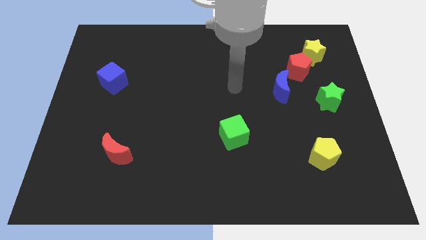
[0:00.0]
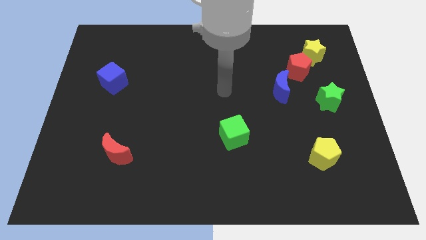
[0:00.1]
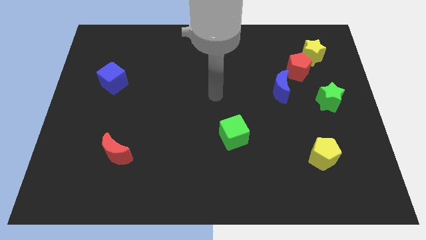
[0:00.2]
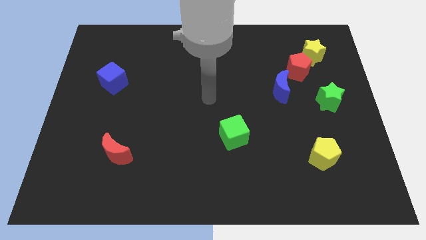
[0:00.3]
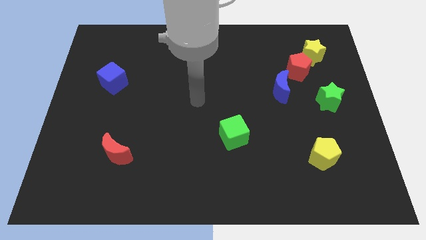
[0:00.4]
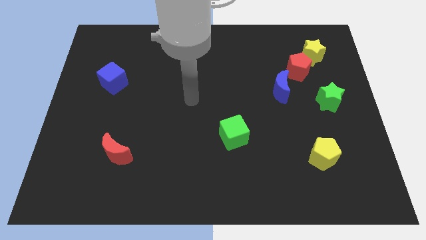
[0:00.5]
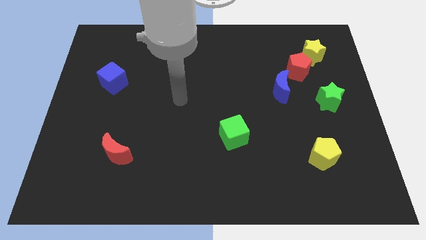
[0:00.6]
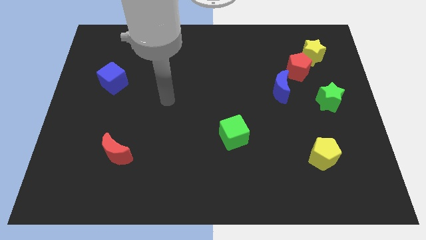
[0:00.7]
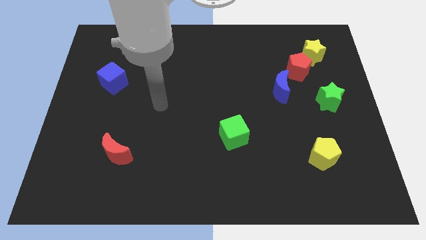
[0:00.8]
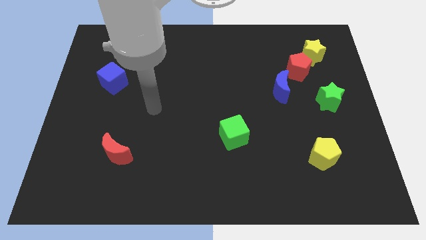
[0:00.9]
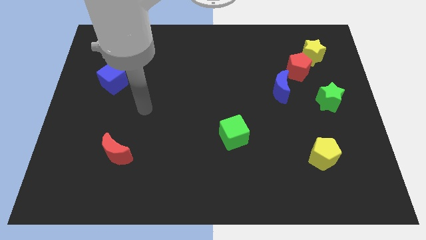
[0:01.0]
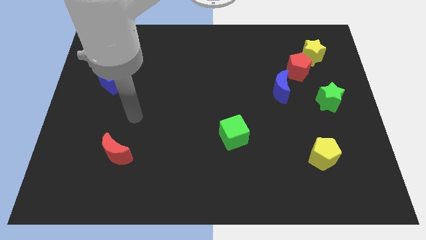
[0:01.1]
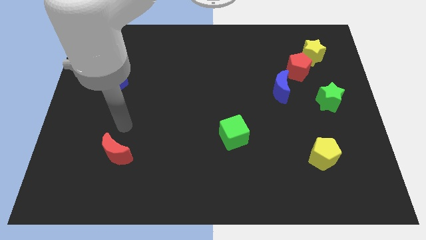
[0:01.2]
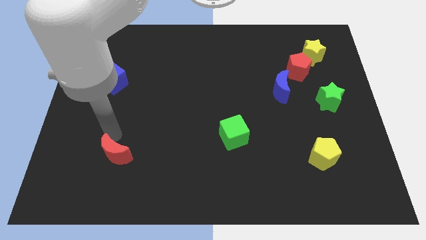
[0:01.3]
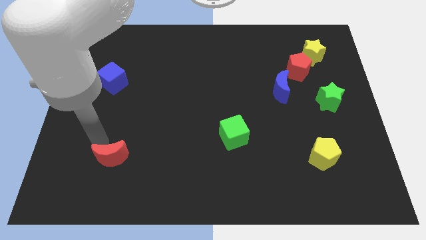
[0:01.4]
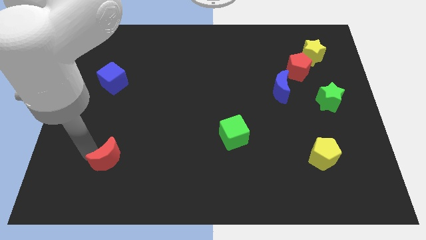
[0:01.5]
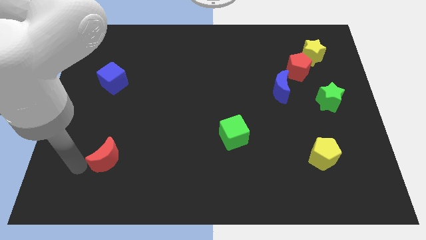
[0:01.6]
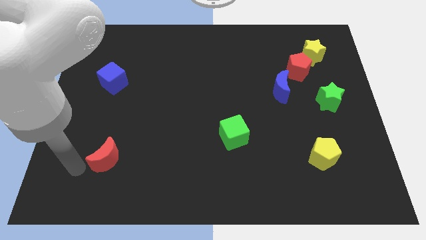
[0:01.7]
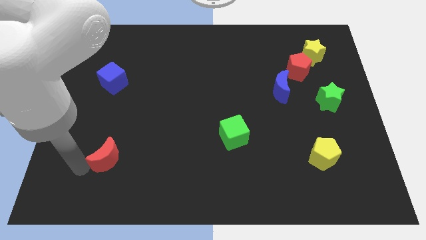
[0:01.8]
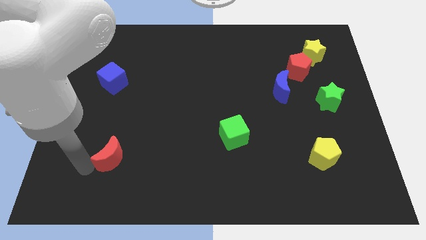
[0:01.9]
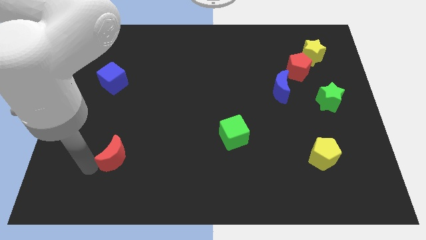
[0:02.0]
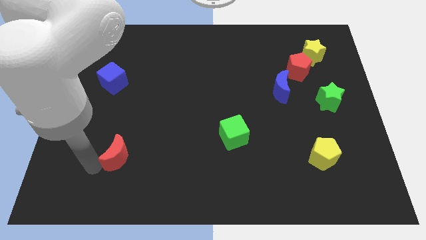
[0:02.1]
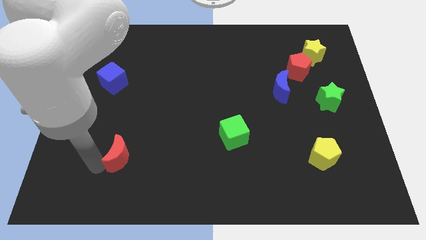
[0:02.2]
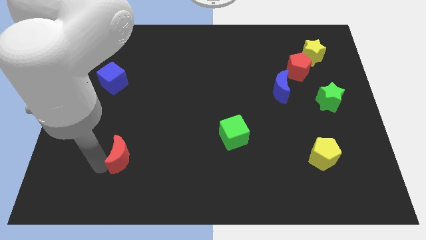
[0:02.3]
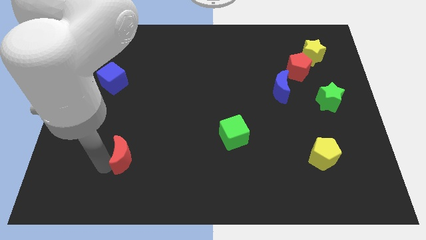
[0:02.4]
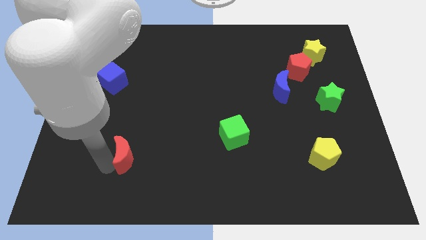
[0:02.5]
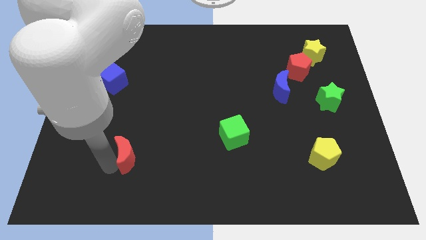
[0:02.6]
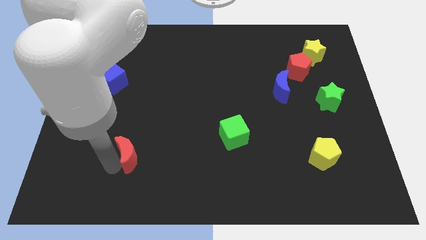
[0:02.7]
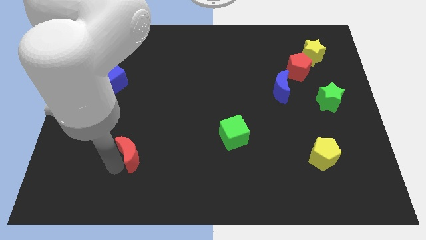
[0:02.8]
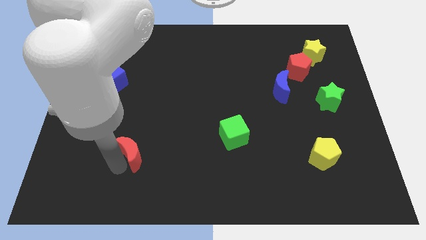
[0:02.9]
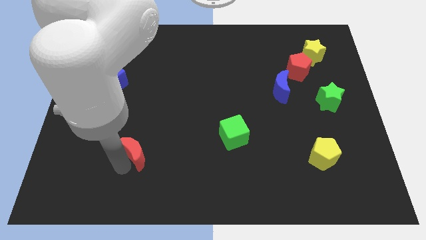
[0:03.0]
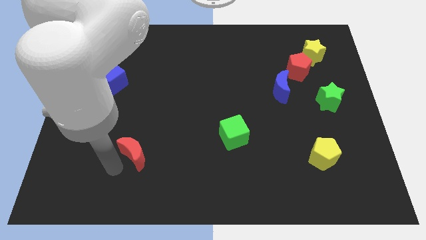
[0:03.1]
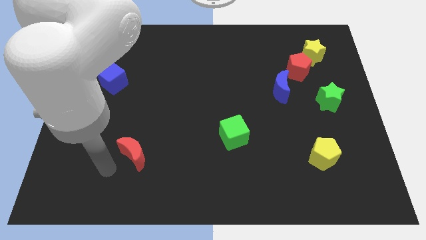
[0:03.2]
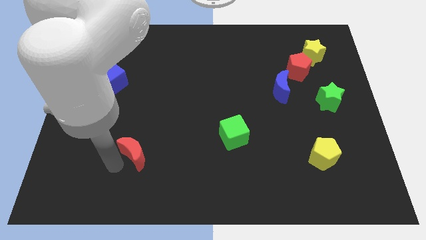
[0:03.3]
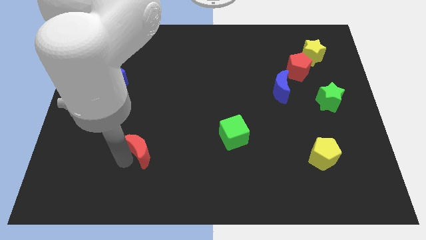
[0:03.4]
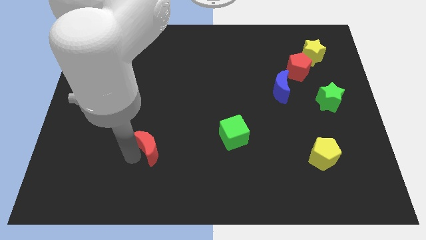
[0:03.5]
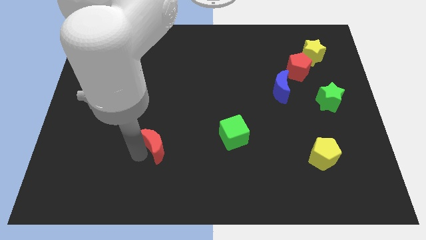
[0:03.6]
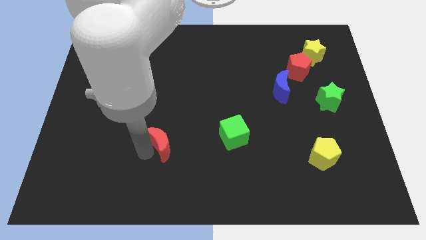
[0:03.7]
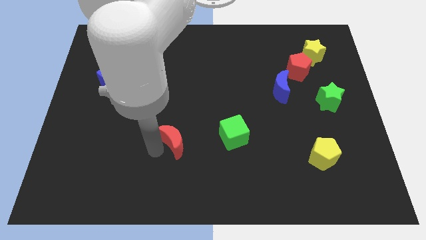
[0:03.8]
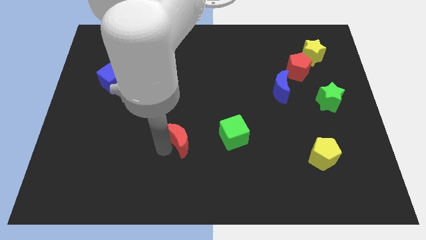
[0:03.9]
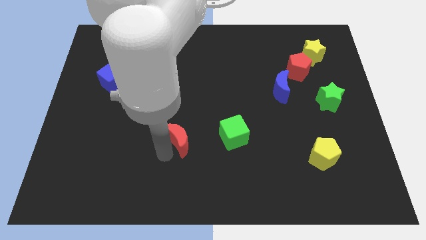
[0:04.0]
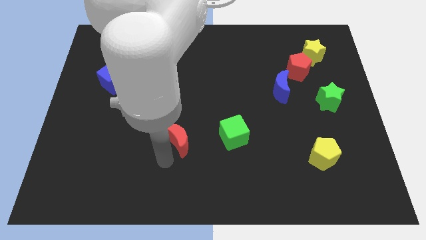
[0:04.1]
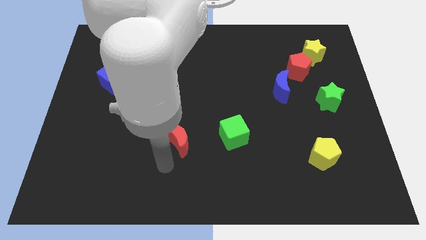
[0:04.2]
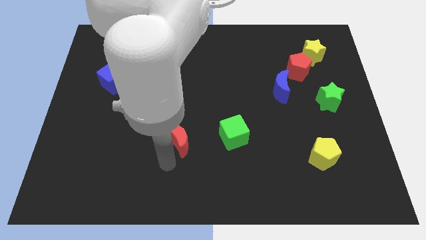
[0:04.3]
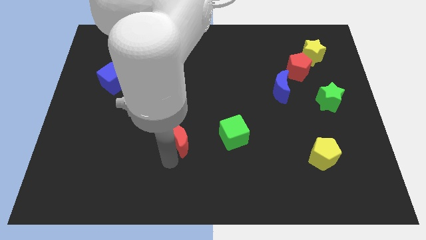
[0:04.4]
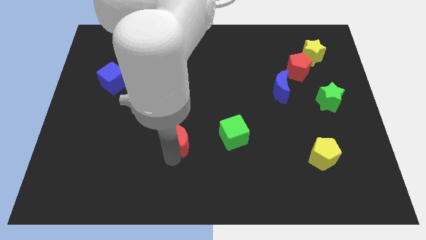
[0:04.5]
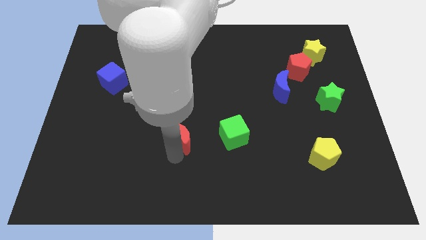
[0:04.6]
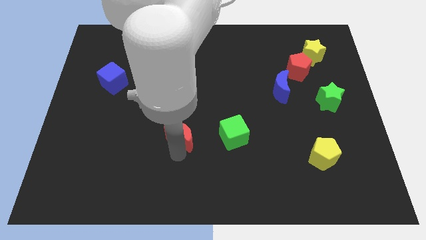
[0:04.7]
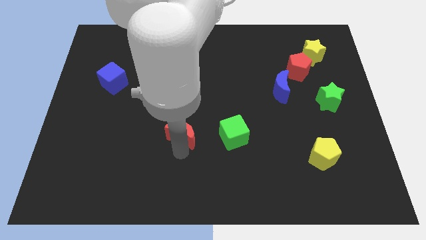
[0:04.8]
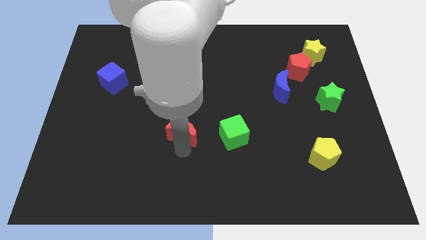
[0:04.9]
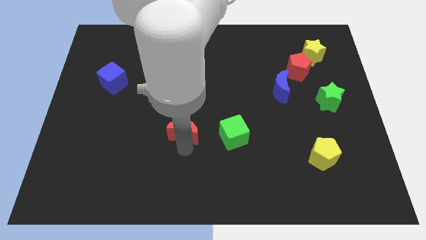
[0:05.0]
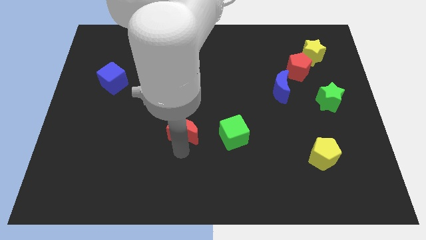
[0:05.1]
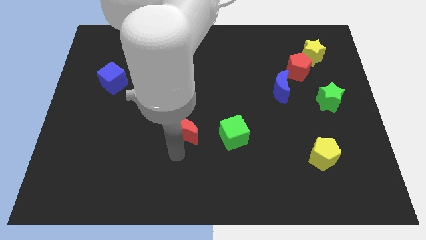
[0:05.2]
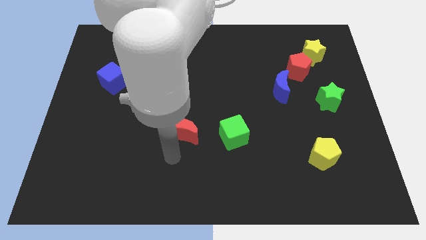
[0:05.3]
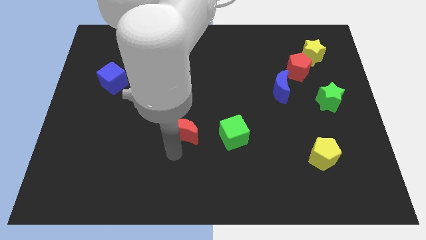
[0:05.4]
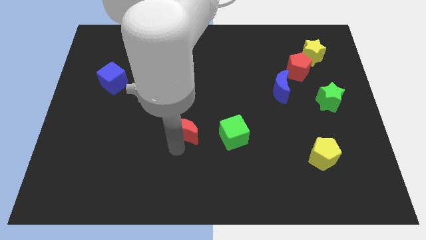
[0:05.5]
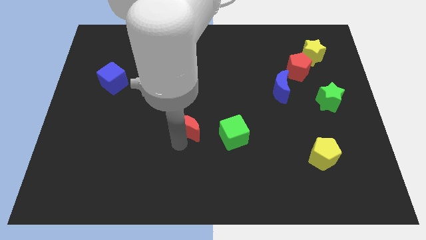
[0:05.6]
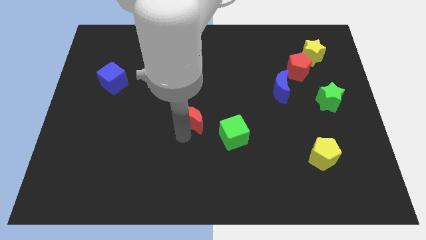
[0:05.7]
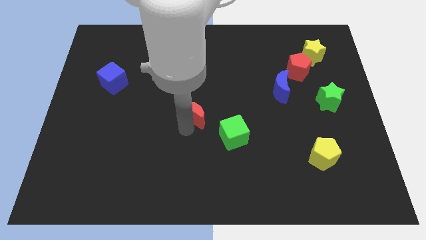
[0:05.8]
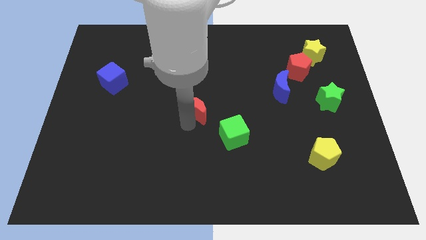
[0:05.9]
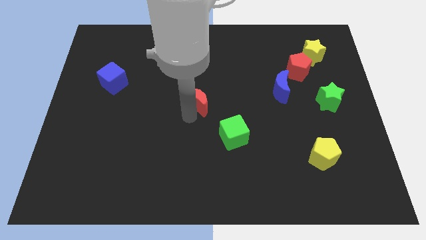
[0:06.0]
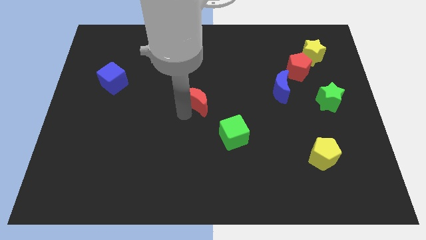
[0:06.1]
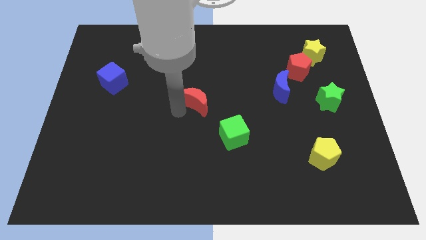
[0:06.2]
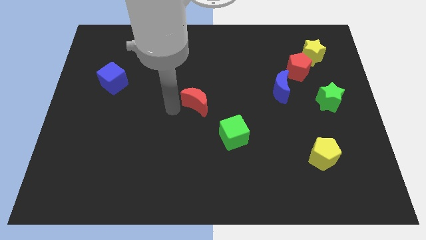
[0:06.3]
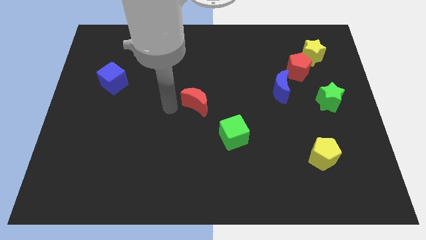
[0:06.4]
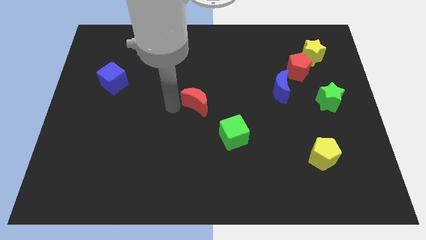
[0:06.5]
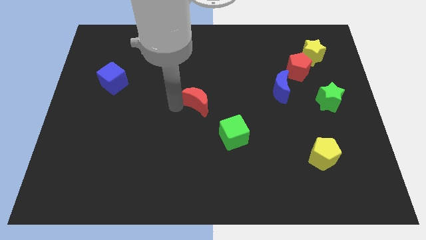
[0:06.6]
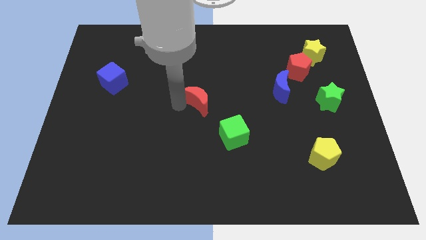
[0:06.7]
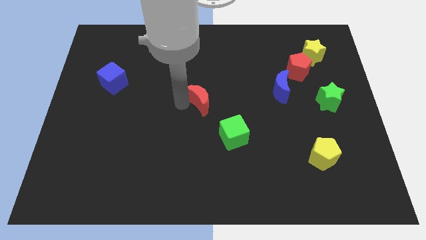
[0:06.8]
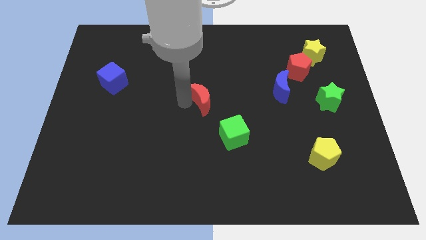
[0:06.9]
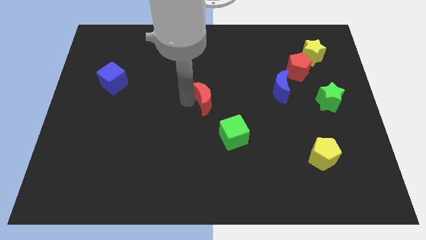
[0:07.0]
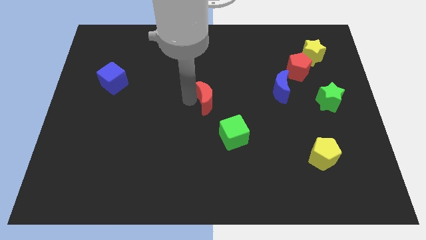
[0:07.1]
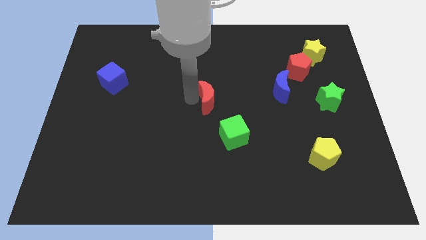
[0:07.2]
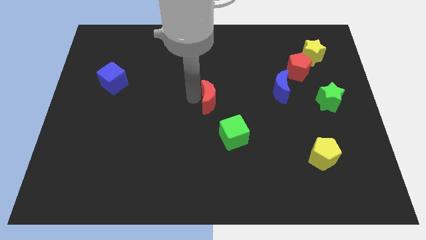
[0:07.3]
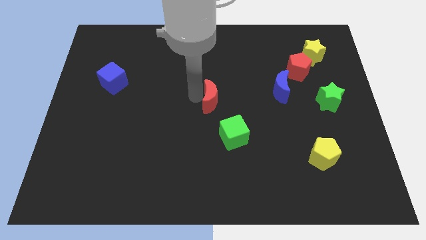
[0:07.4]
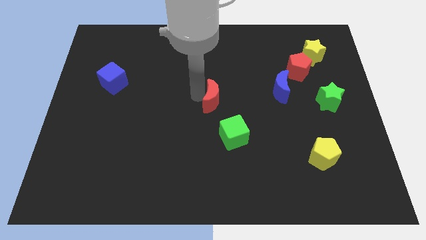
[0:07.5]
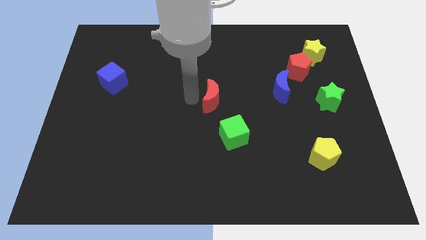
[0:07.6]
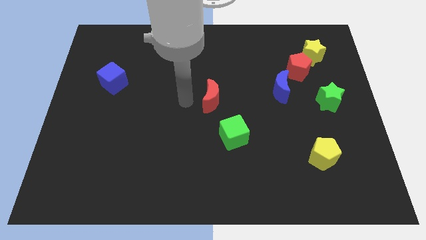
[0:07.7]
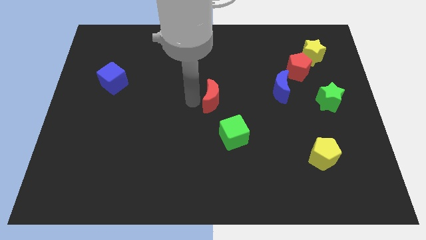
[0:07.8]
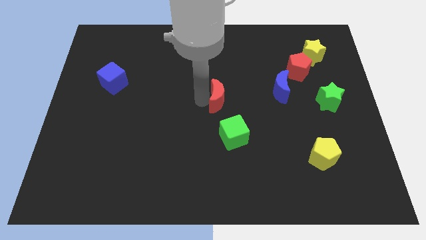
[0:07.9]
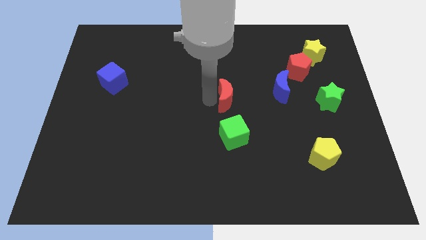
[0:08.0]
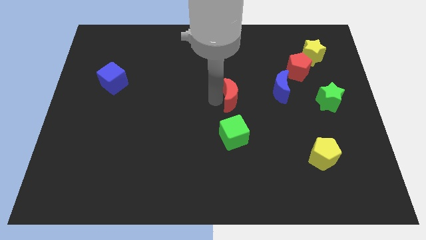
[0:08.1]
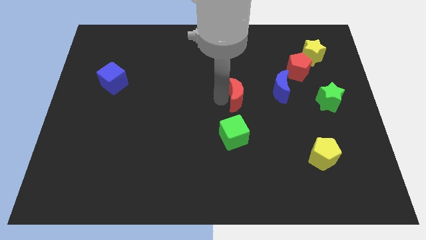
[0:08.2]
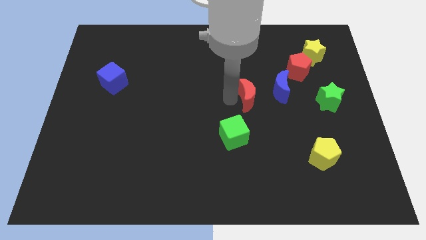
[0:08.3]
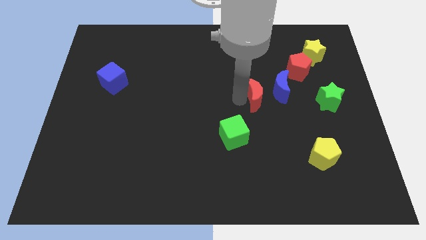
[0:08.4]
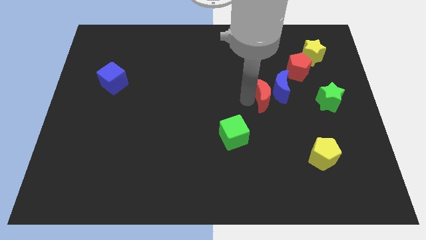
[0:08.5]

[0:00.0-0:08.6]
move the red moon next to the blue moon
